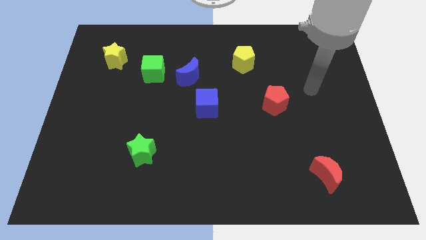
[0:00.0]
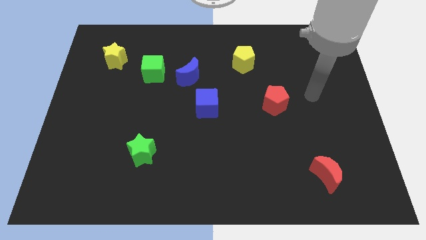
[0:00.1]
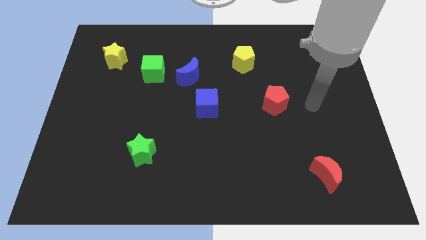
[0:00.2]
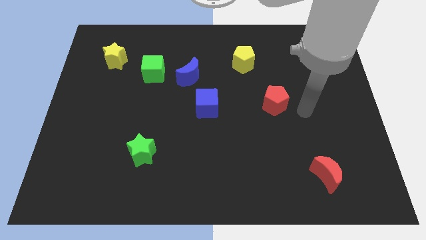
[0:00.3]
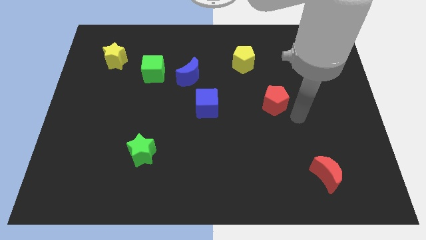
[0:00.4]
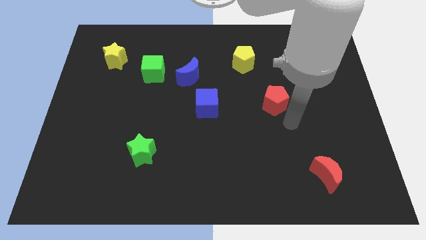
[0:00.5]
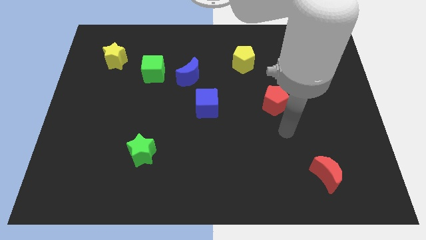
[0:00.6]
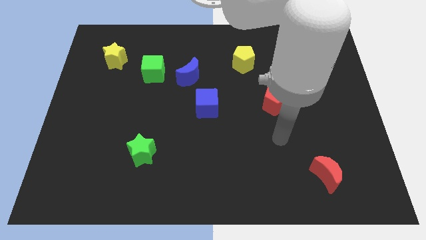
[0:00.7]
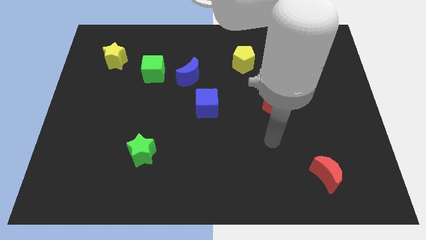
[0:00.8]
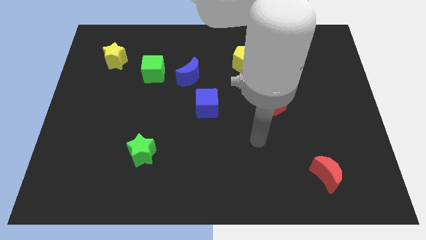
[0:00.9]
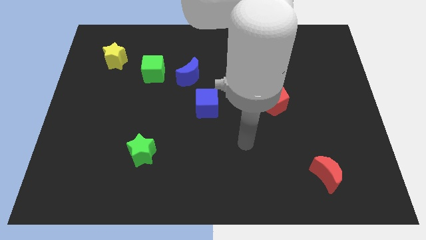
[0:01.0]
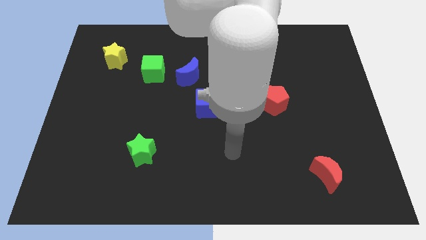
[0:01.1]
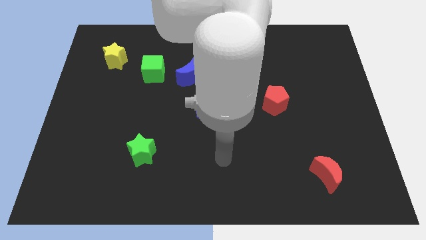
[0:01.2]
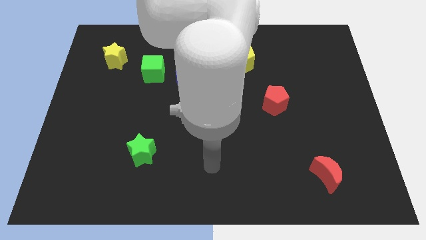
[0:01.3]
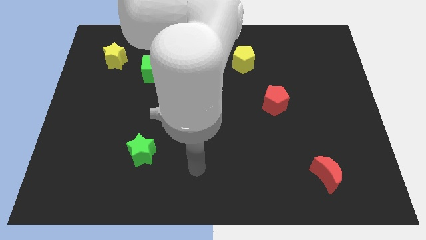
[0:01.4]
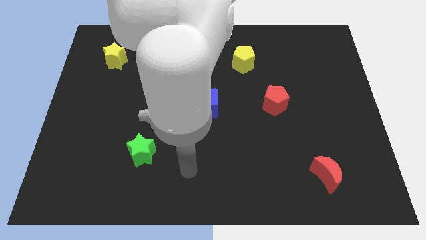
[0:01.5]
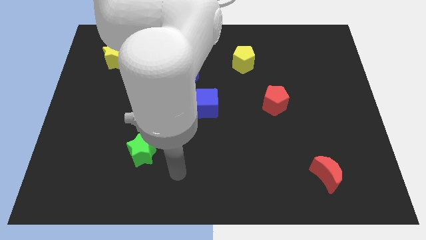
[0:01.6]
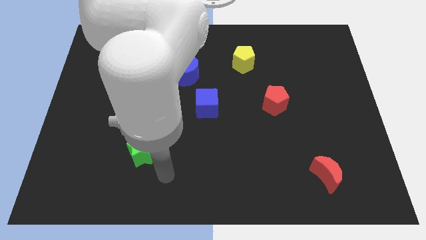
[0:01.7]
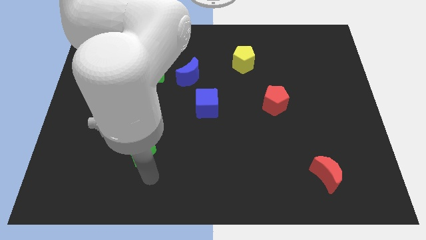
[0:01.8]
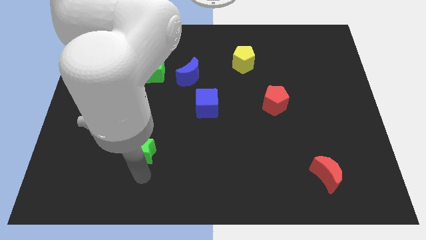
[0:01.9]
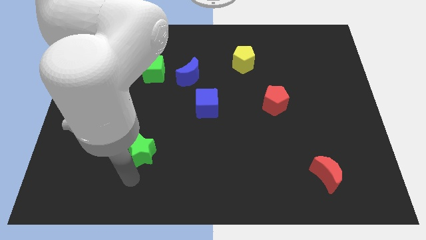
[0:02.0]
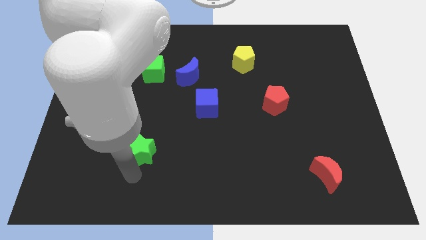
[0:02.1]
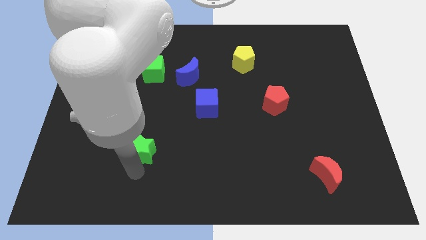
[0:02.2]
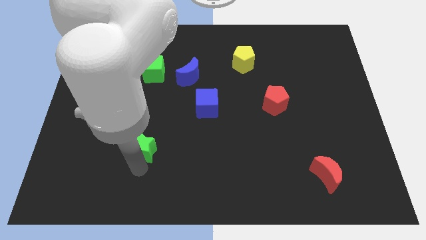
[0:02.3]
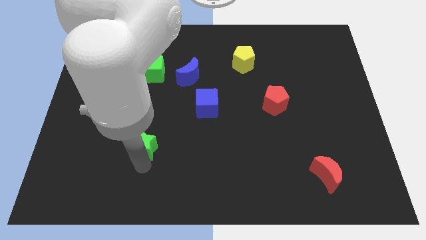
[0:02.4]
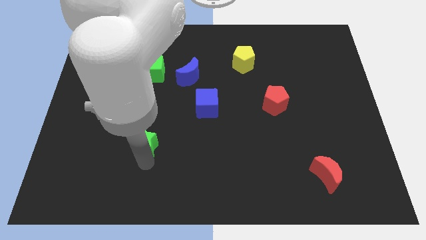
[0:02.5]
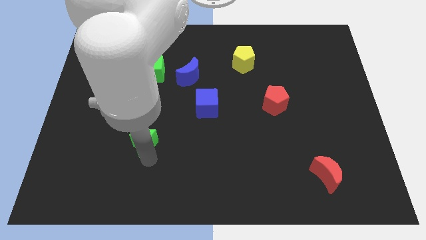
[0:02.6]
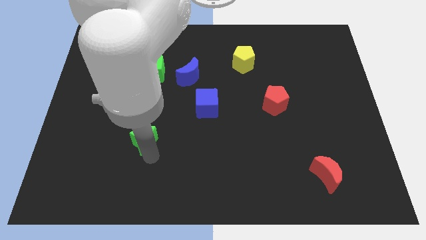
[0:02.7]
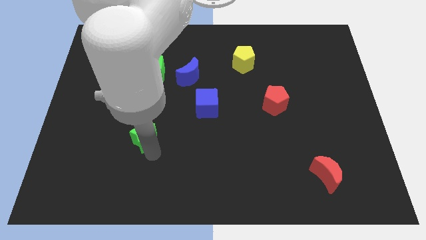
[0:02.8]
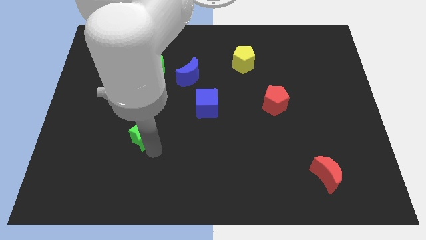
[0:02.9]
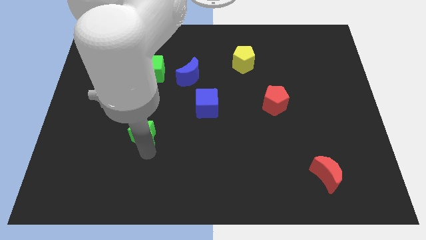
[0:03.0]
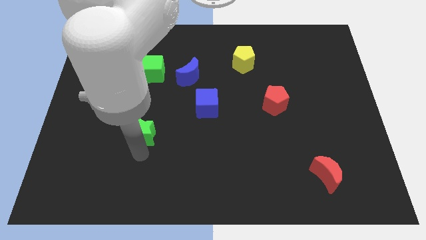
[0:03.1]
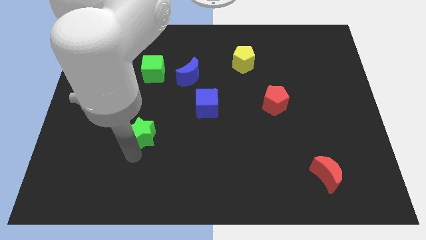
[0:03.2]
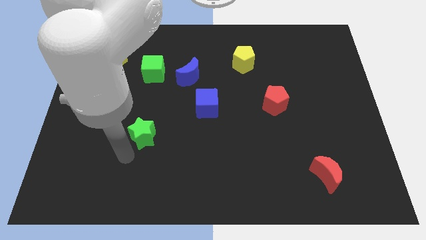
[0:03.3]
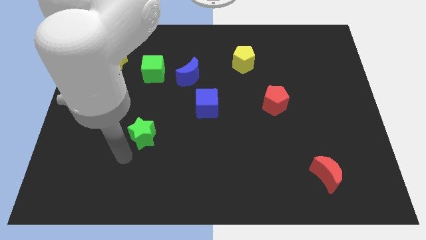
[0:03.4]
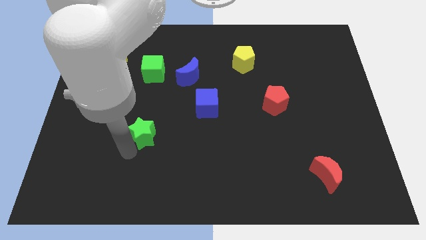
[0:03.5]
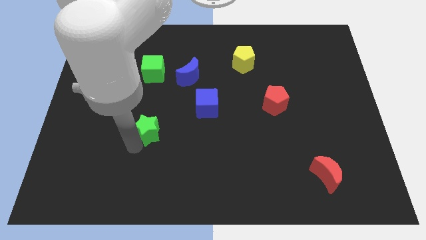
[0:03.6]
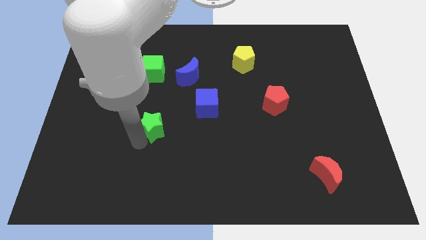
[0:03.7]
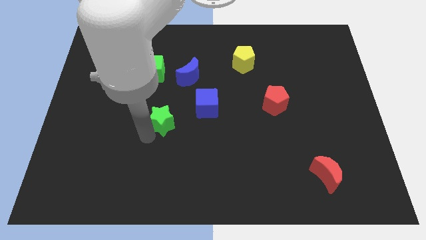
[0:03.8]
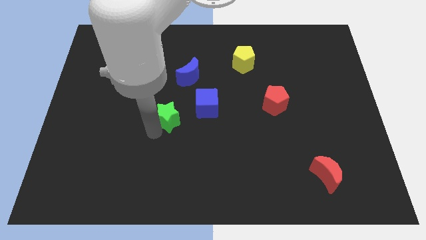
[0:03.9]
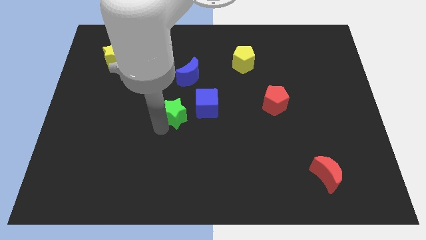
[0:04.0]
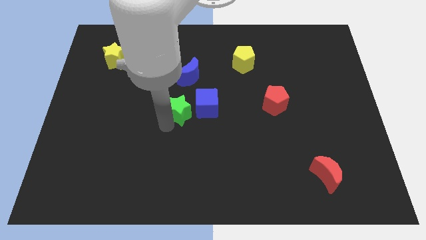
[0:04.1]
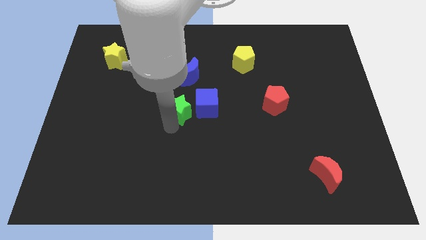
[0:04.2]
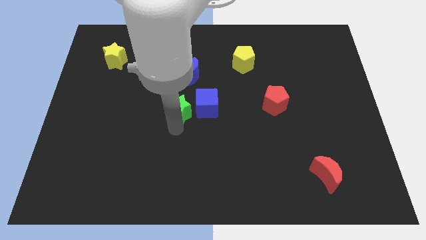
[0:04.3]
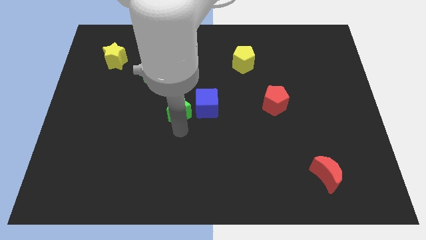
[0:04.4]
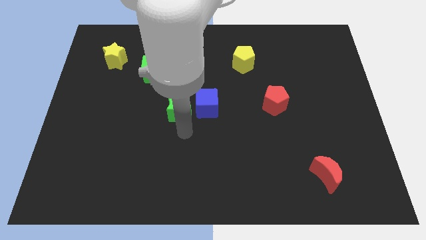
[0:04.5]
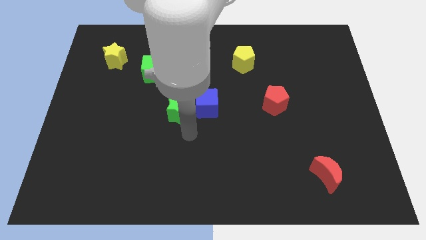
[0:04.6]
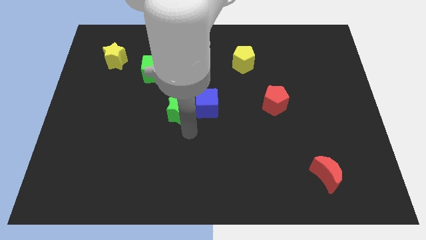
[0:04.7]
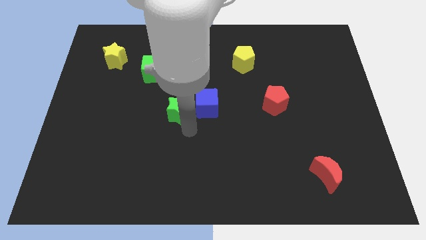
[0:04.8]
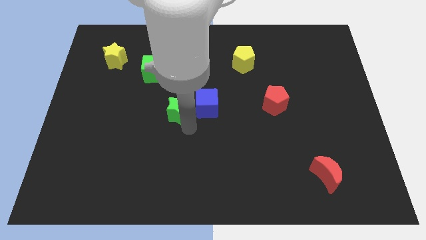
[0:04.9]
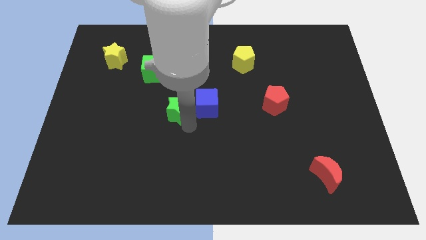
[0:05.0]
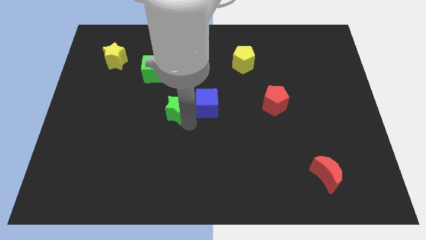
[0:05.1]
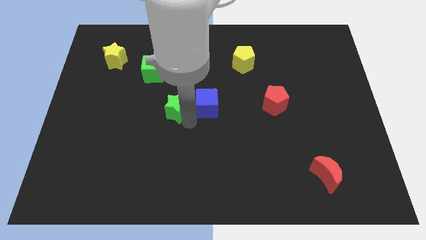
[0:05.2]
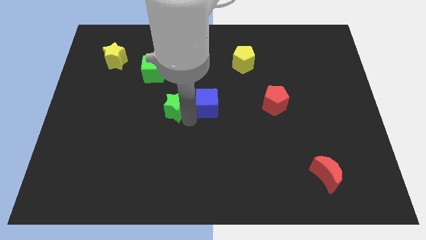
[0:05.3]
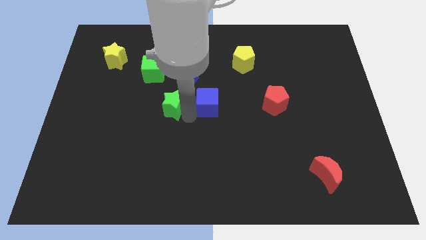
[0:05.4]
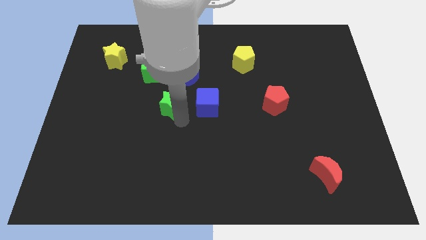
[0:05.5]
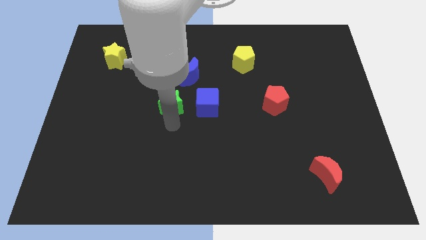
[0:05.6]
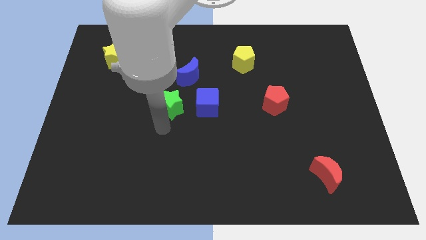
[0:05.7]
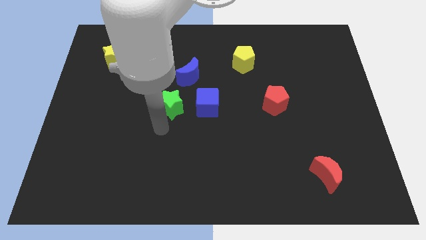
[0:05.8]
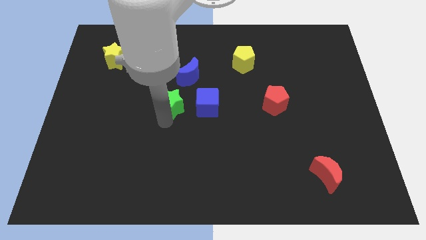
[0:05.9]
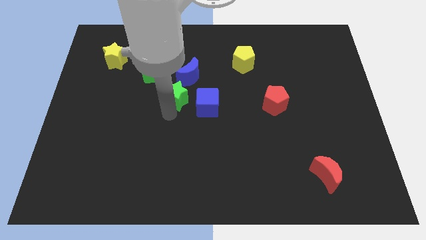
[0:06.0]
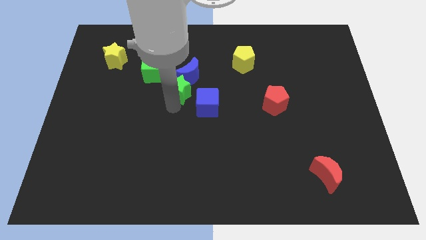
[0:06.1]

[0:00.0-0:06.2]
slide the green star close to the blue moon

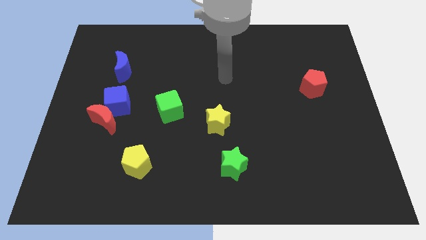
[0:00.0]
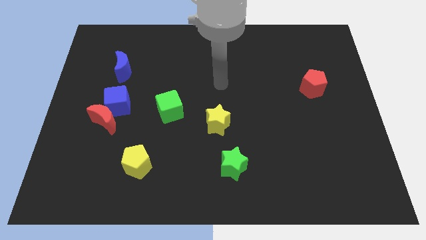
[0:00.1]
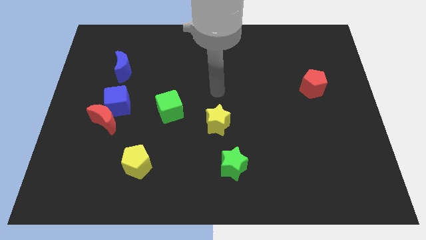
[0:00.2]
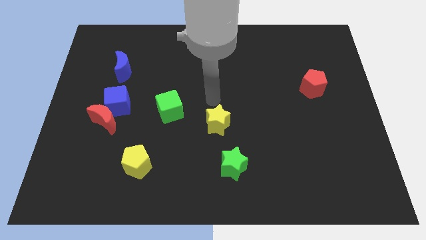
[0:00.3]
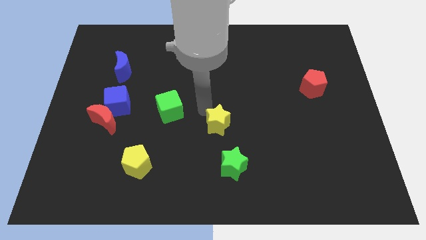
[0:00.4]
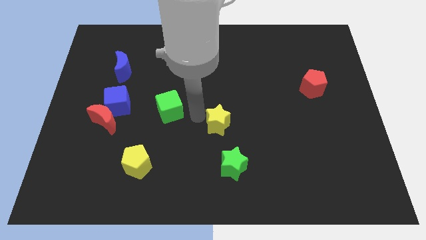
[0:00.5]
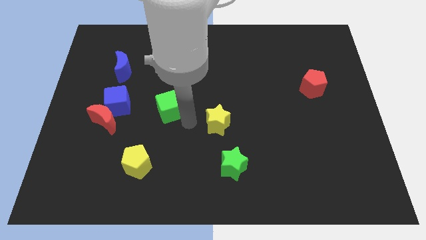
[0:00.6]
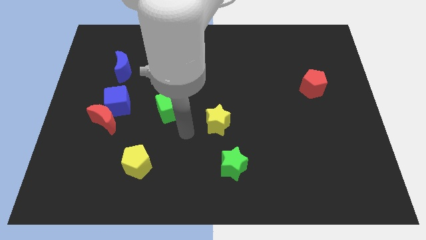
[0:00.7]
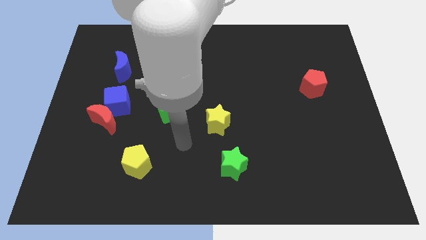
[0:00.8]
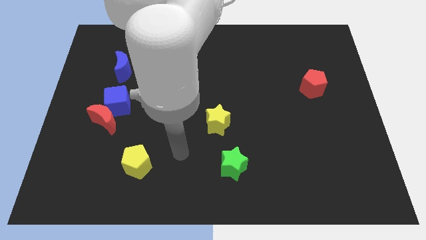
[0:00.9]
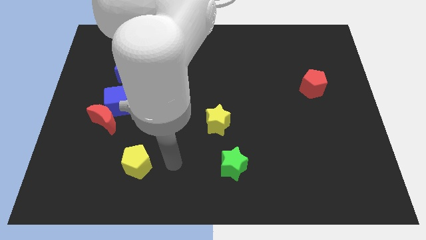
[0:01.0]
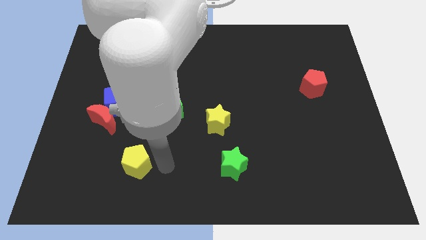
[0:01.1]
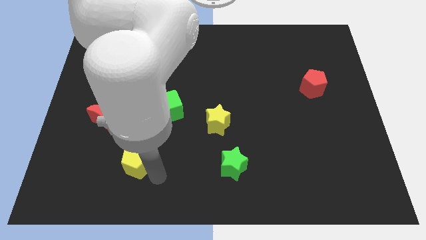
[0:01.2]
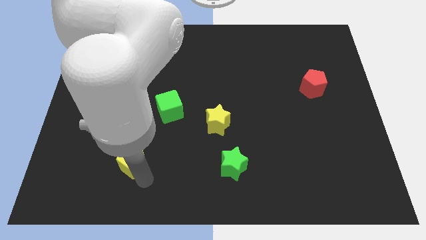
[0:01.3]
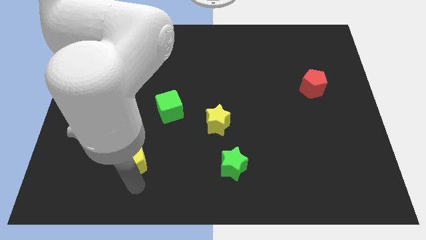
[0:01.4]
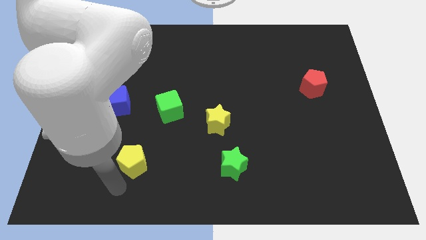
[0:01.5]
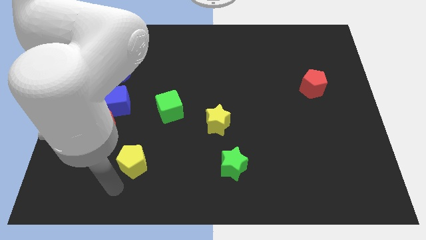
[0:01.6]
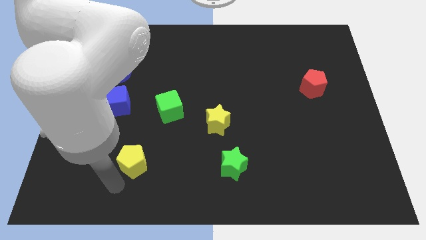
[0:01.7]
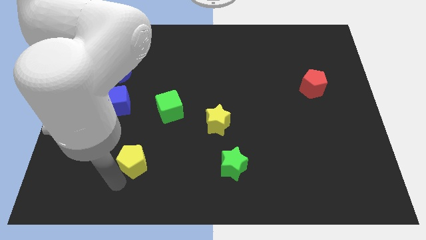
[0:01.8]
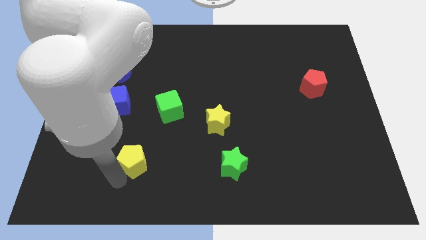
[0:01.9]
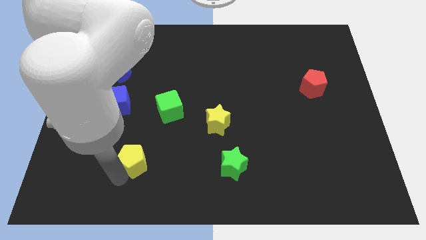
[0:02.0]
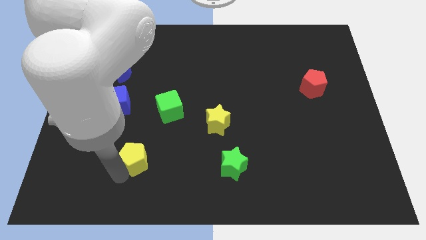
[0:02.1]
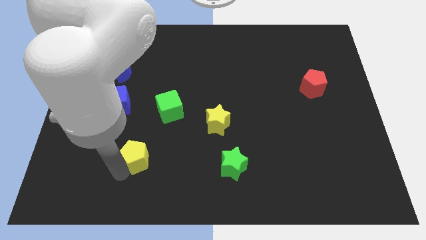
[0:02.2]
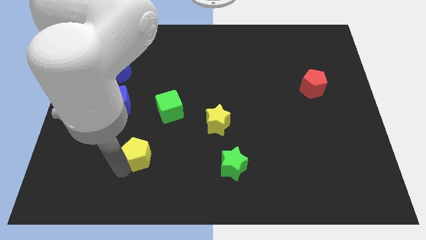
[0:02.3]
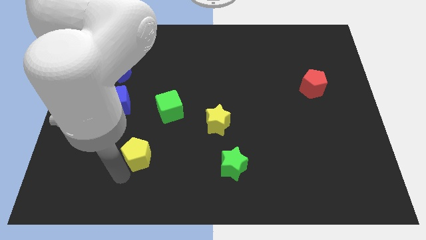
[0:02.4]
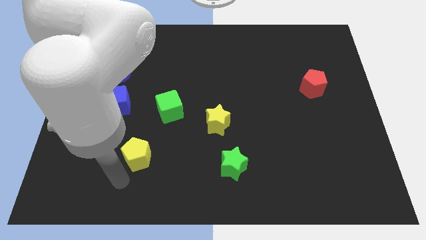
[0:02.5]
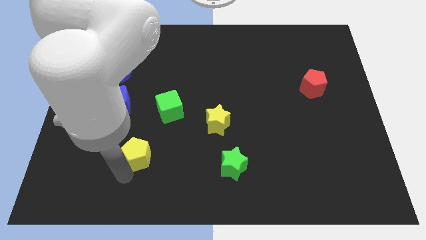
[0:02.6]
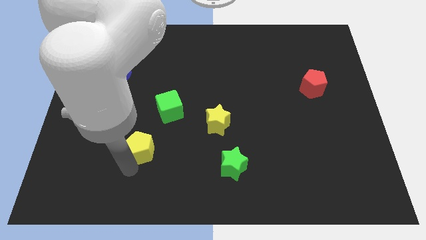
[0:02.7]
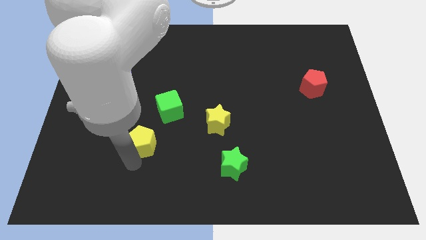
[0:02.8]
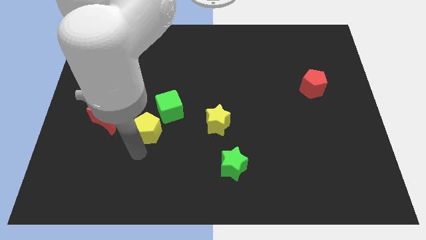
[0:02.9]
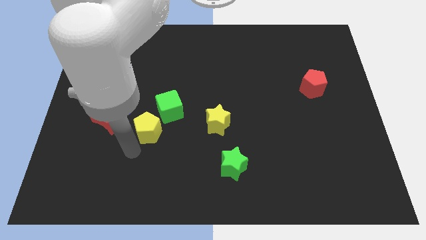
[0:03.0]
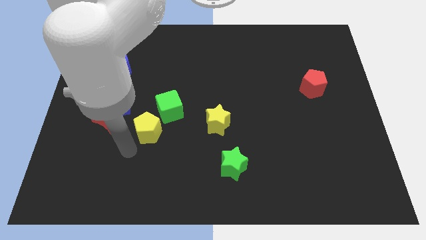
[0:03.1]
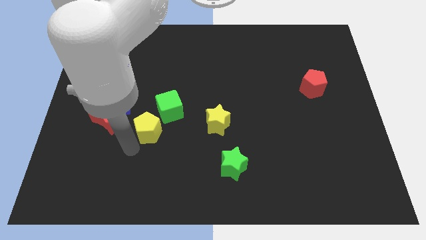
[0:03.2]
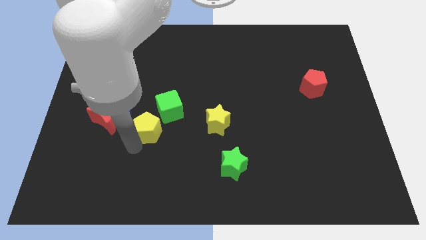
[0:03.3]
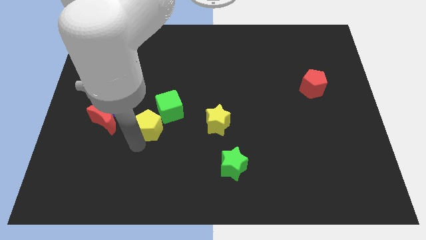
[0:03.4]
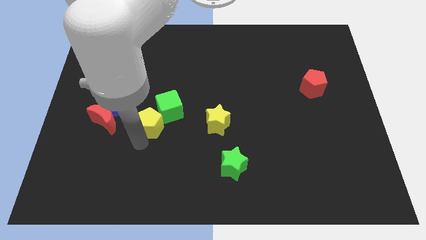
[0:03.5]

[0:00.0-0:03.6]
move the yellow pentagon towards the green cube
